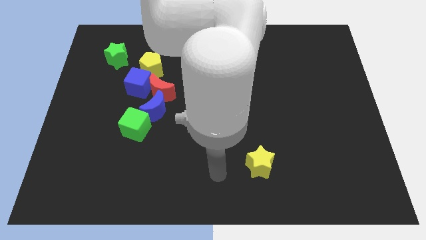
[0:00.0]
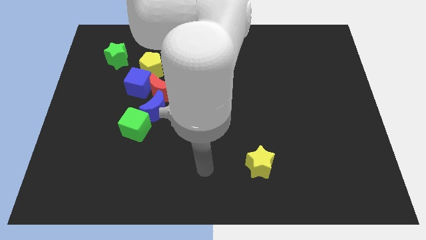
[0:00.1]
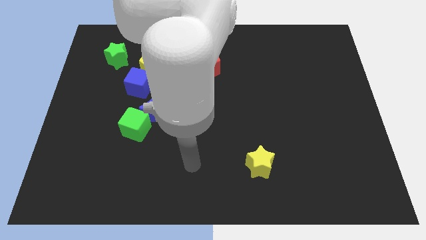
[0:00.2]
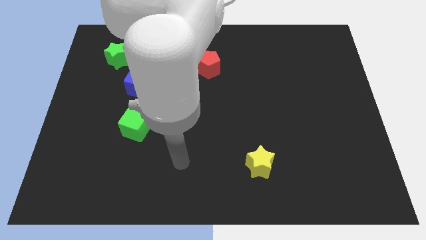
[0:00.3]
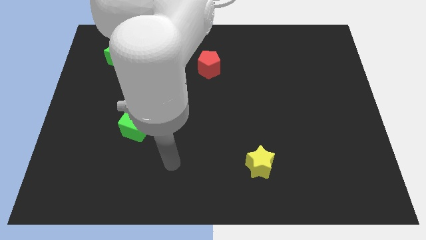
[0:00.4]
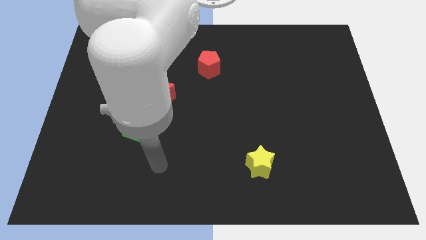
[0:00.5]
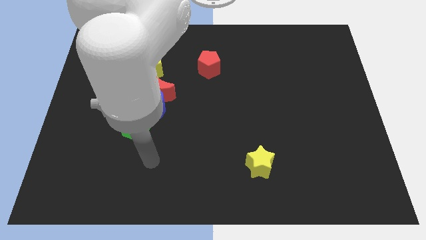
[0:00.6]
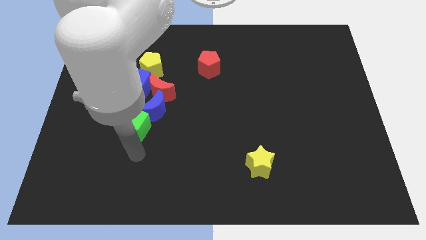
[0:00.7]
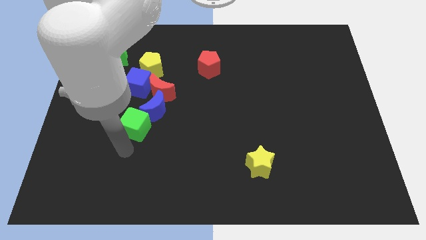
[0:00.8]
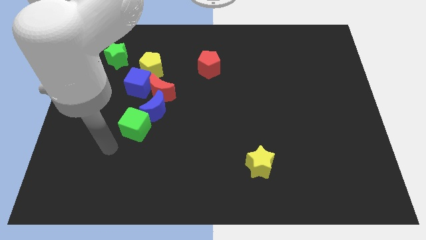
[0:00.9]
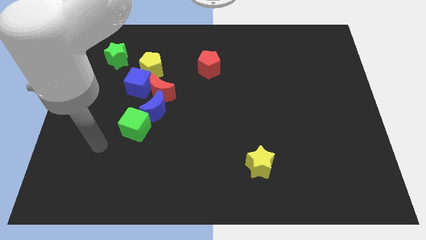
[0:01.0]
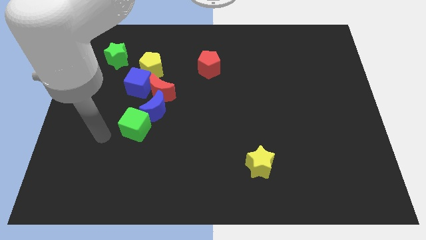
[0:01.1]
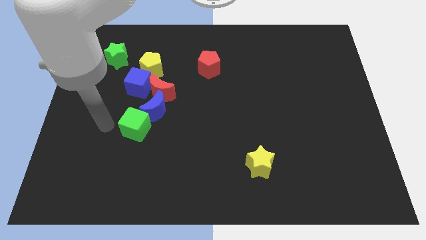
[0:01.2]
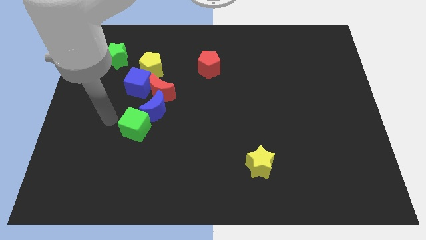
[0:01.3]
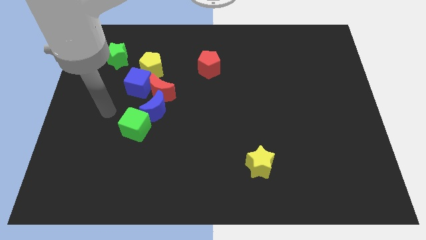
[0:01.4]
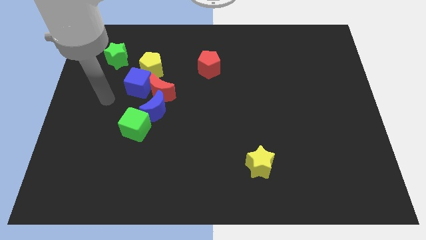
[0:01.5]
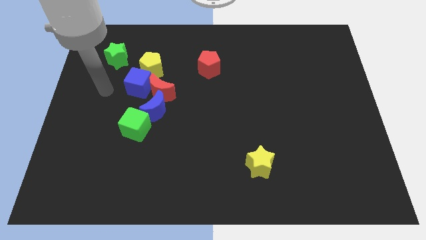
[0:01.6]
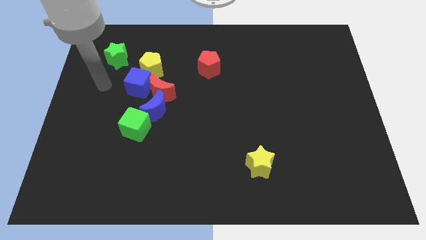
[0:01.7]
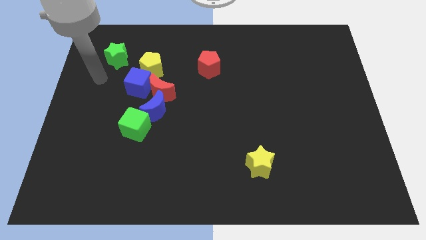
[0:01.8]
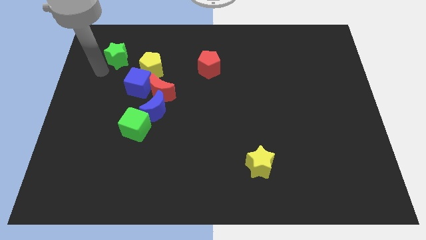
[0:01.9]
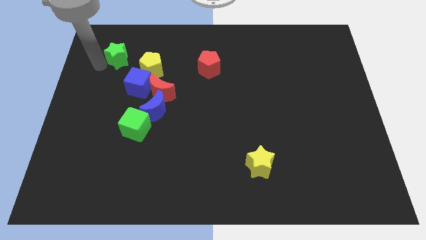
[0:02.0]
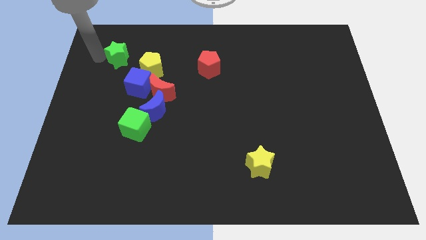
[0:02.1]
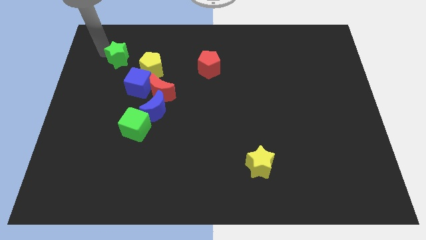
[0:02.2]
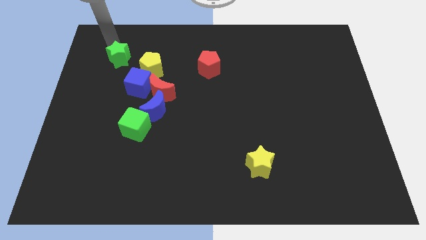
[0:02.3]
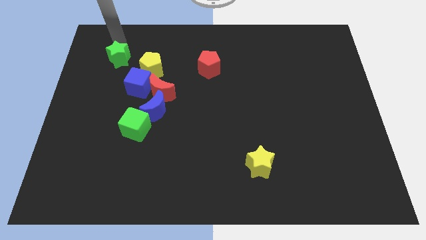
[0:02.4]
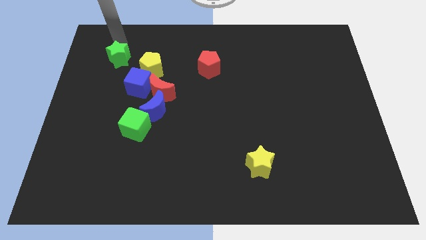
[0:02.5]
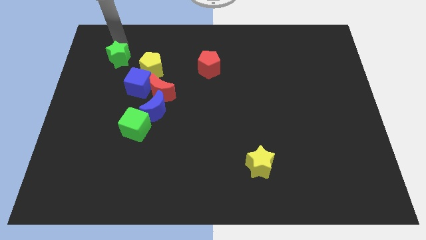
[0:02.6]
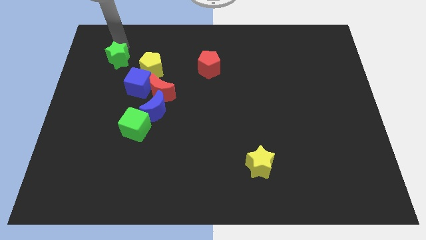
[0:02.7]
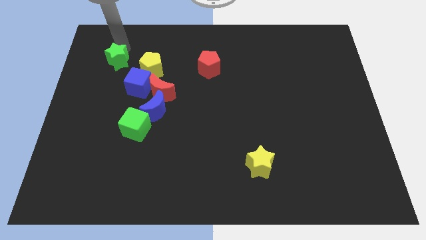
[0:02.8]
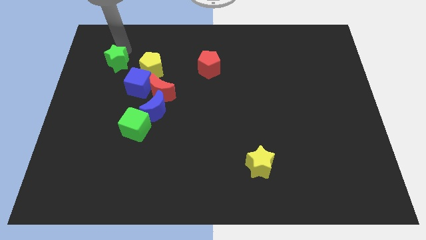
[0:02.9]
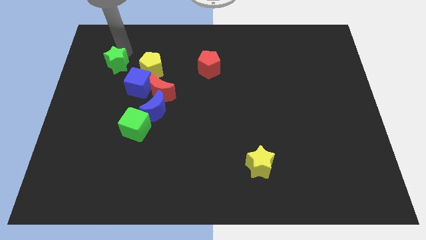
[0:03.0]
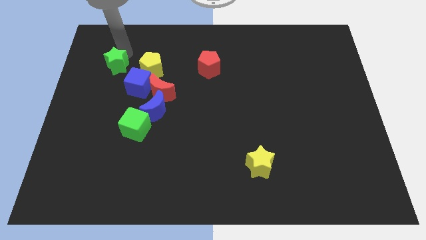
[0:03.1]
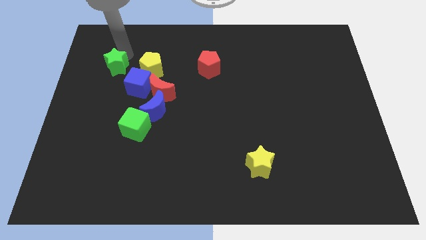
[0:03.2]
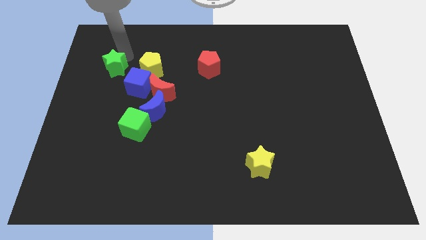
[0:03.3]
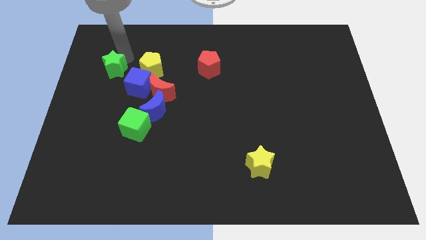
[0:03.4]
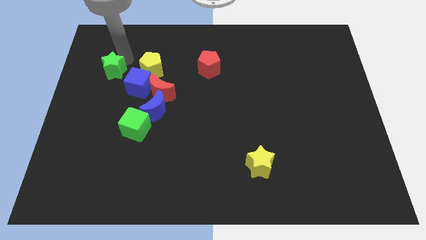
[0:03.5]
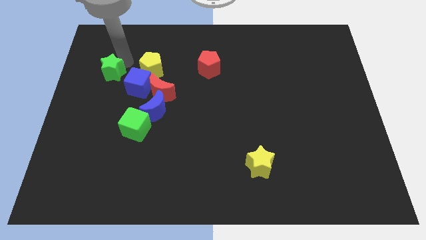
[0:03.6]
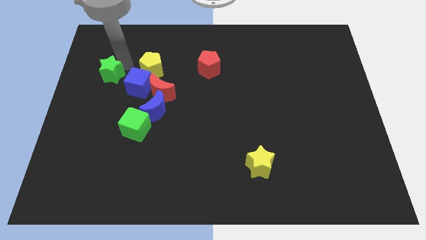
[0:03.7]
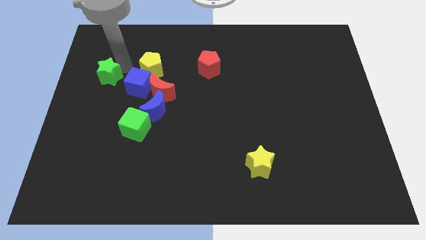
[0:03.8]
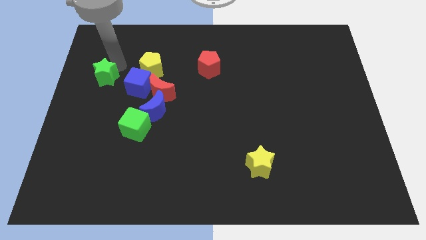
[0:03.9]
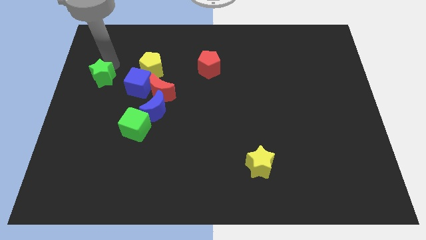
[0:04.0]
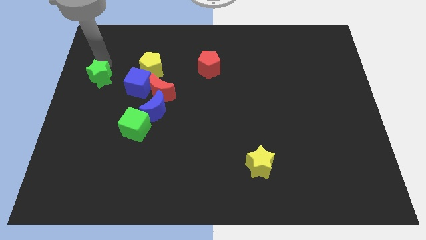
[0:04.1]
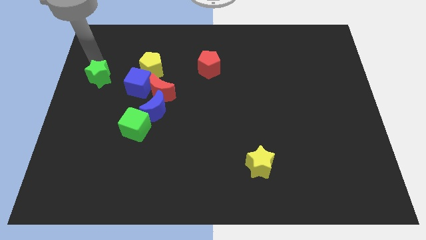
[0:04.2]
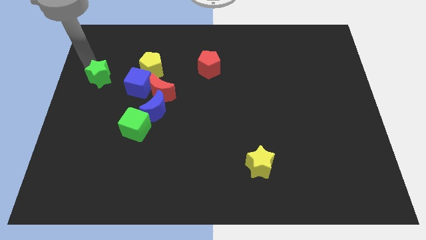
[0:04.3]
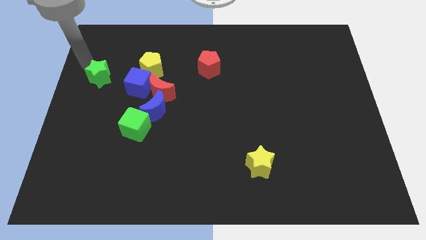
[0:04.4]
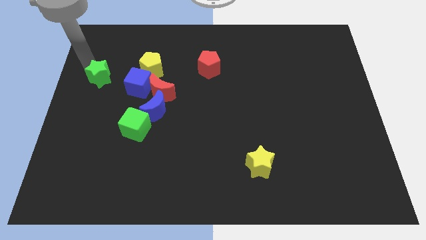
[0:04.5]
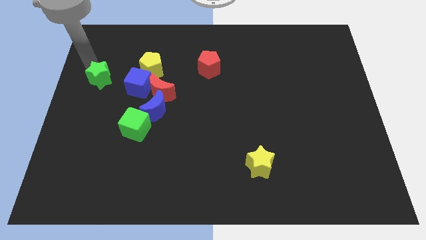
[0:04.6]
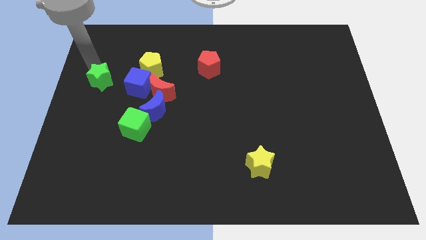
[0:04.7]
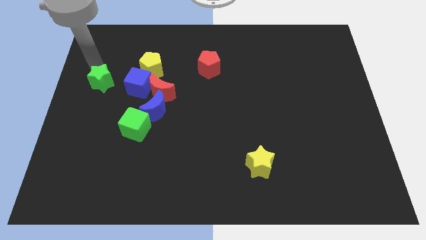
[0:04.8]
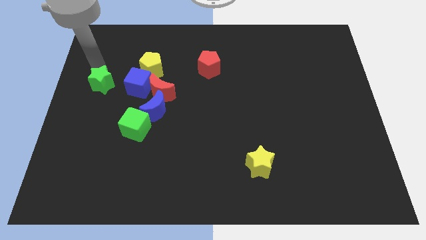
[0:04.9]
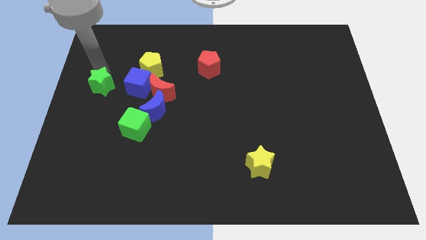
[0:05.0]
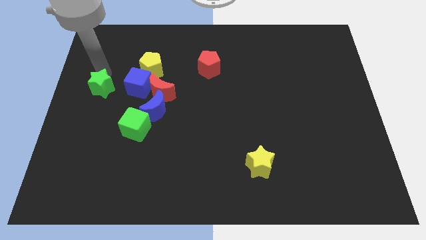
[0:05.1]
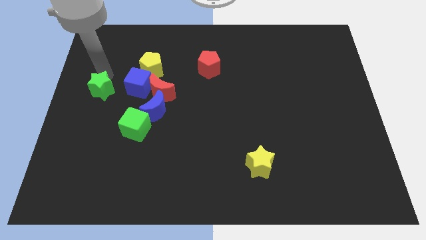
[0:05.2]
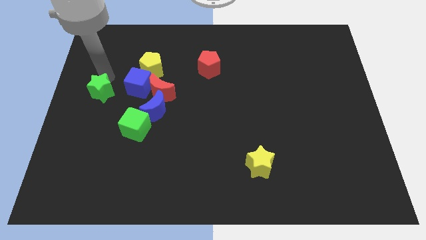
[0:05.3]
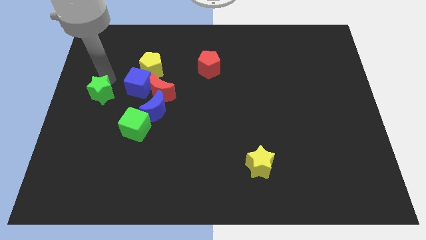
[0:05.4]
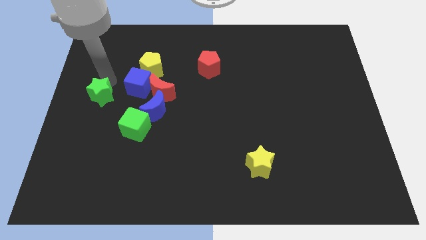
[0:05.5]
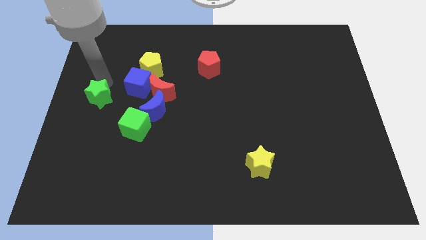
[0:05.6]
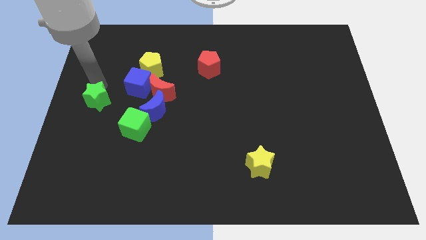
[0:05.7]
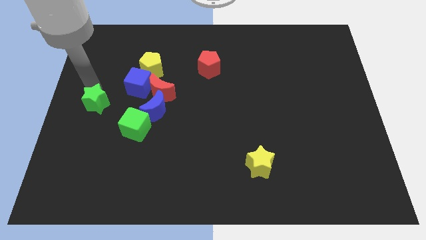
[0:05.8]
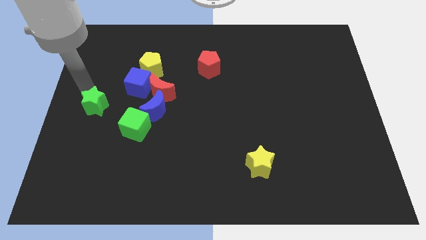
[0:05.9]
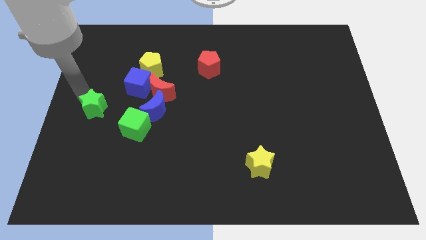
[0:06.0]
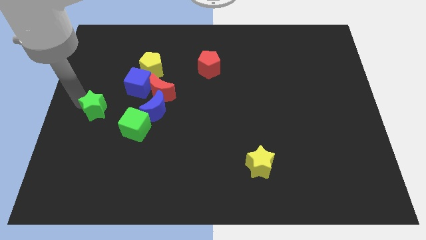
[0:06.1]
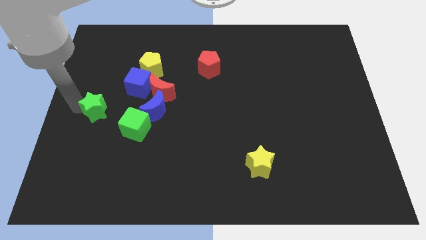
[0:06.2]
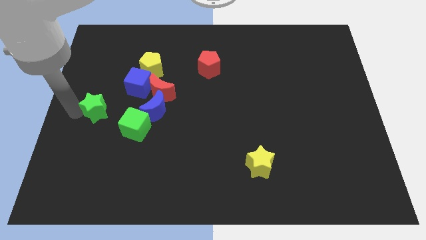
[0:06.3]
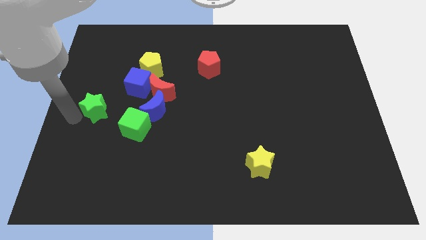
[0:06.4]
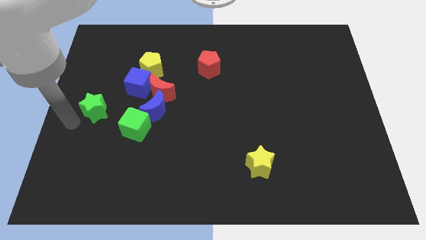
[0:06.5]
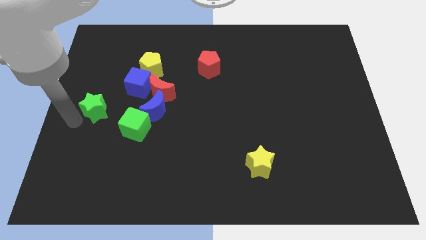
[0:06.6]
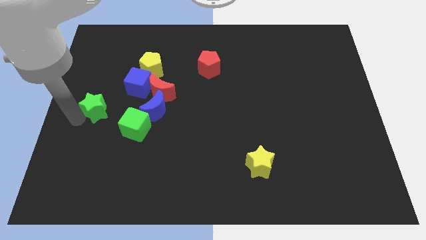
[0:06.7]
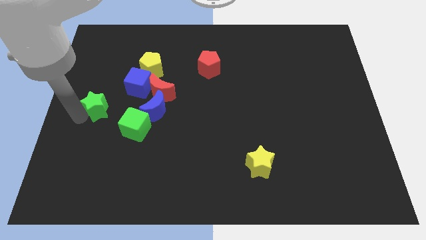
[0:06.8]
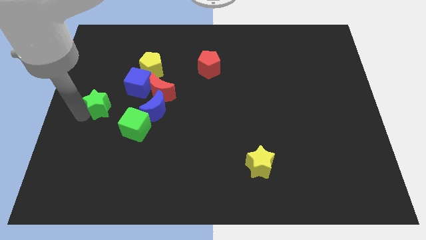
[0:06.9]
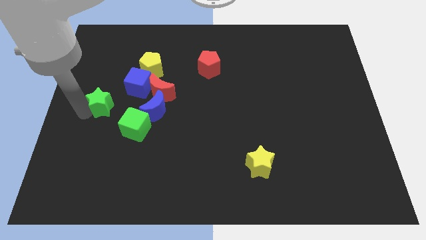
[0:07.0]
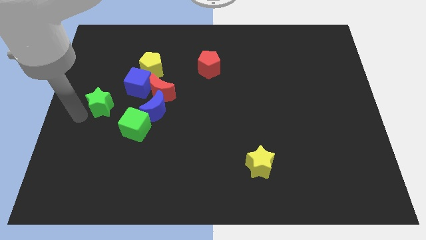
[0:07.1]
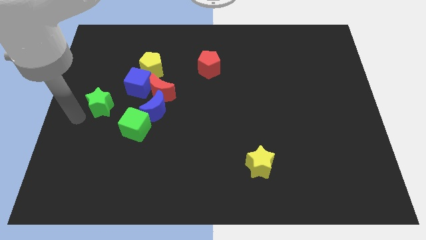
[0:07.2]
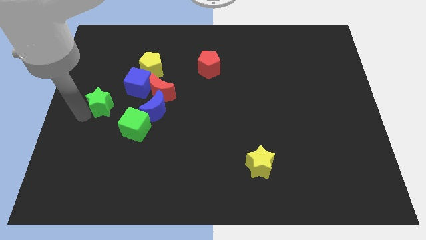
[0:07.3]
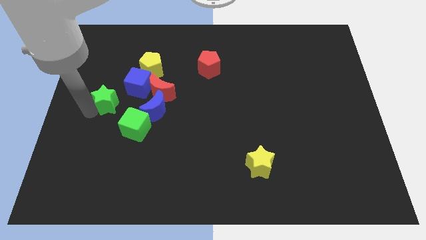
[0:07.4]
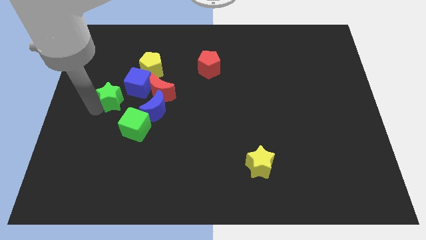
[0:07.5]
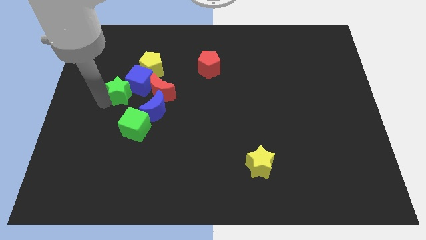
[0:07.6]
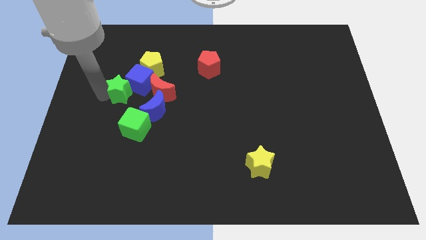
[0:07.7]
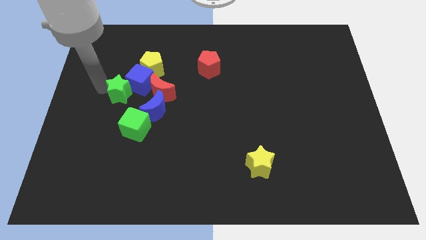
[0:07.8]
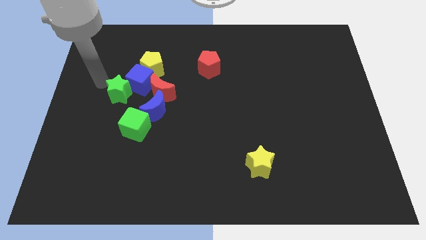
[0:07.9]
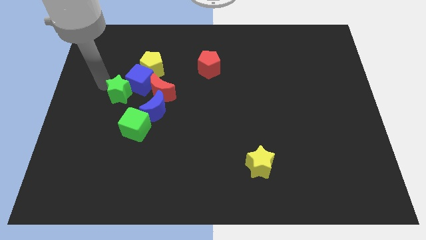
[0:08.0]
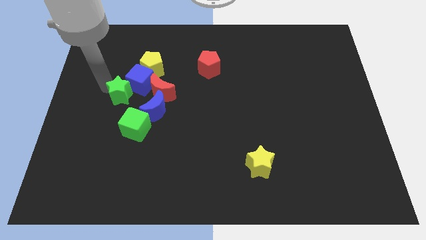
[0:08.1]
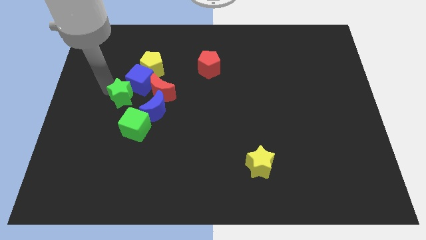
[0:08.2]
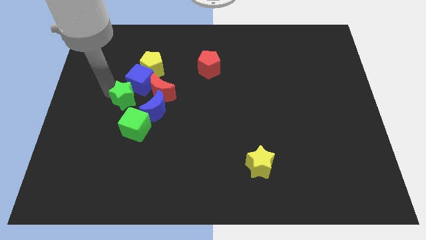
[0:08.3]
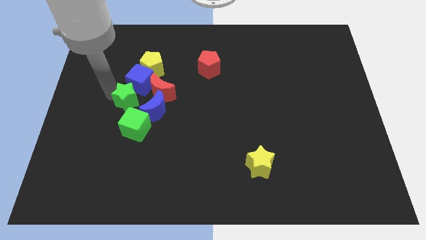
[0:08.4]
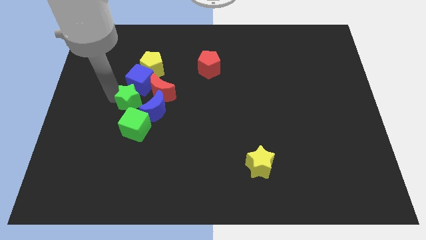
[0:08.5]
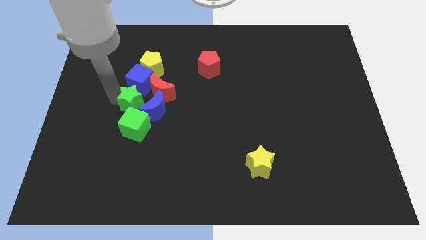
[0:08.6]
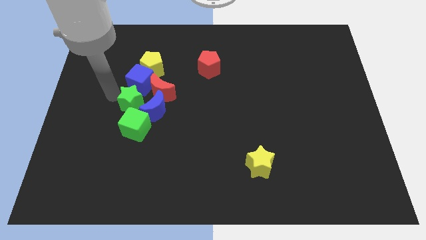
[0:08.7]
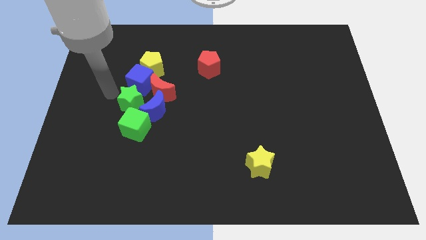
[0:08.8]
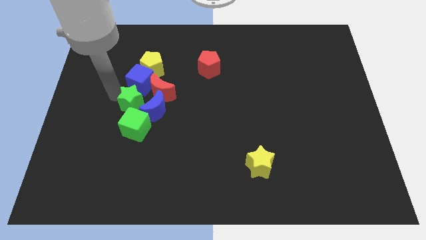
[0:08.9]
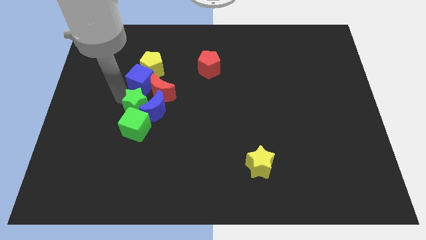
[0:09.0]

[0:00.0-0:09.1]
put the green star to the blue moon
